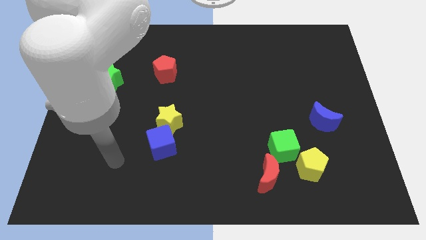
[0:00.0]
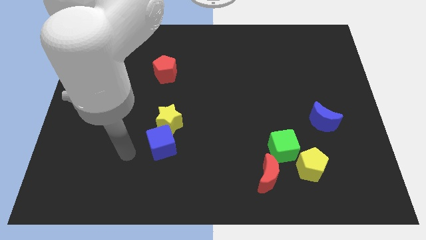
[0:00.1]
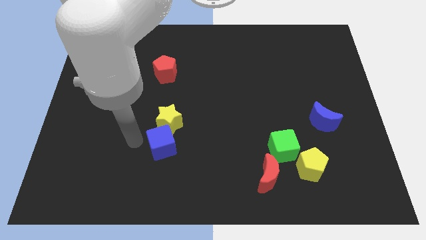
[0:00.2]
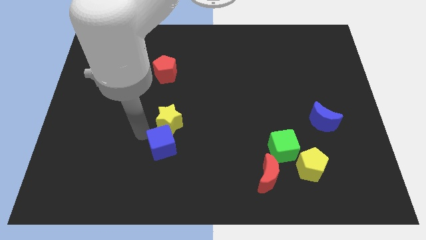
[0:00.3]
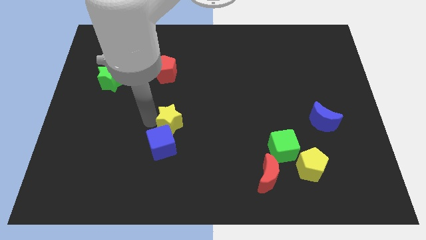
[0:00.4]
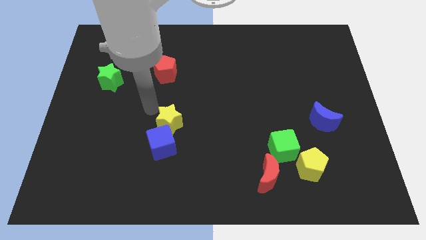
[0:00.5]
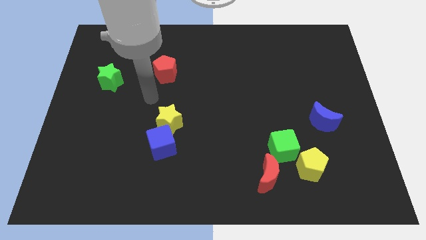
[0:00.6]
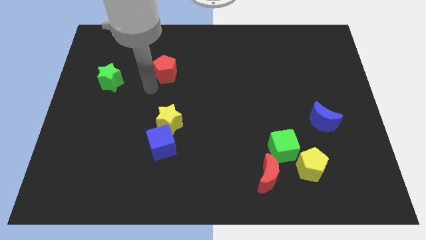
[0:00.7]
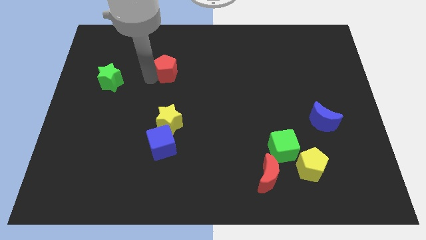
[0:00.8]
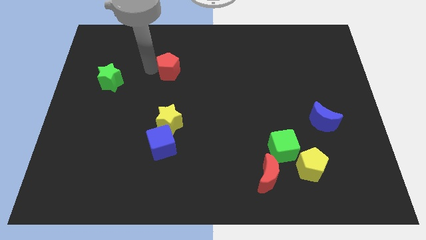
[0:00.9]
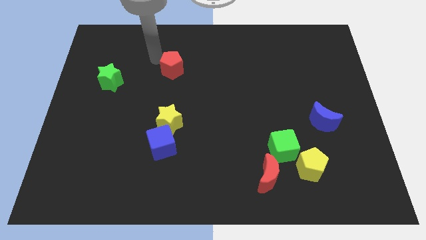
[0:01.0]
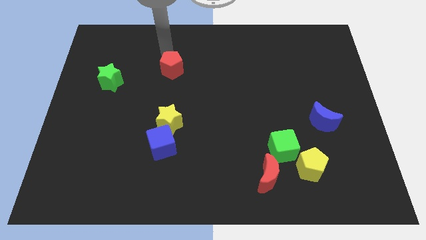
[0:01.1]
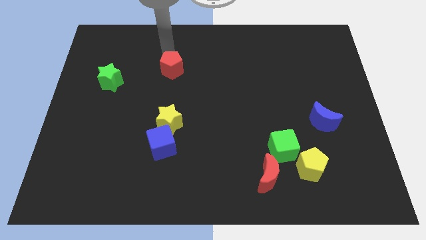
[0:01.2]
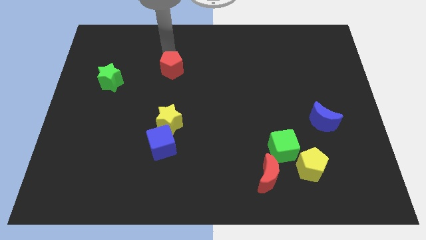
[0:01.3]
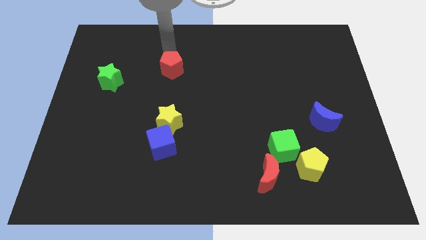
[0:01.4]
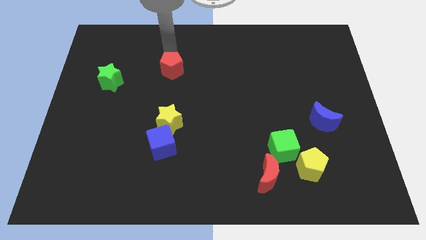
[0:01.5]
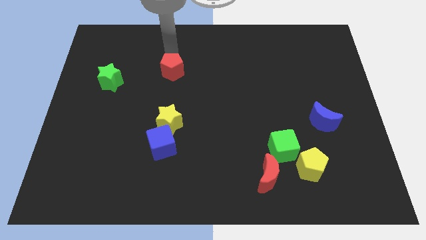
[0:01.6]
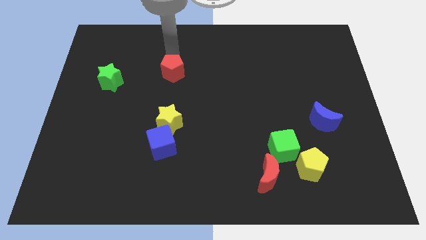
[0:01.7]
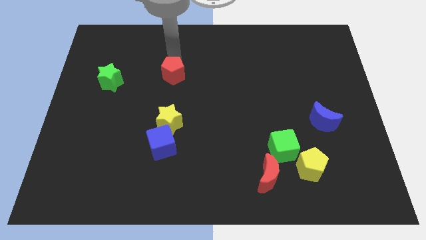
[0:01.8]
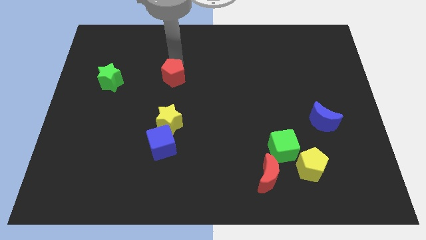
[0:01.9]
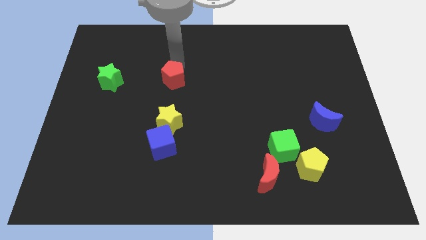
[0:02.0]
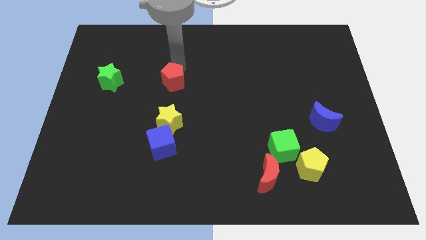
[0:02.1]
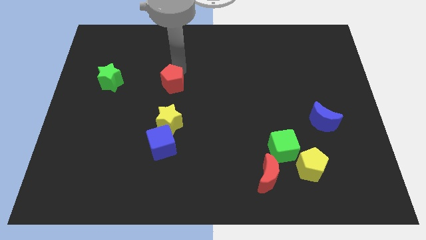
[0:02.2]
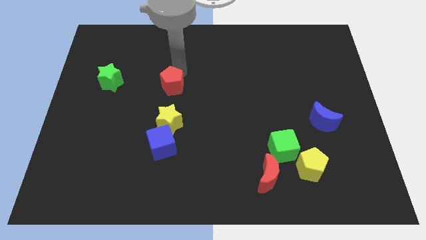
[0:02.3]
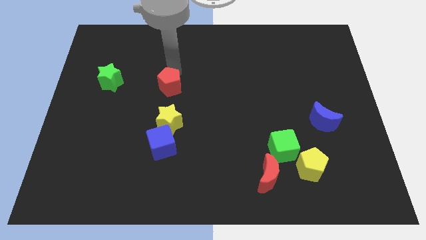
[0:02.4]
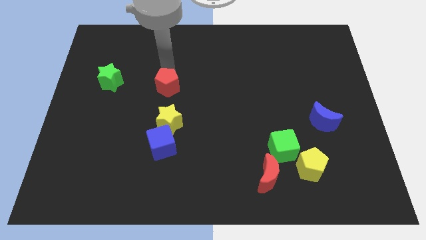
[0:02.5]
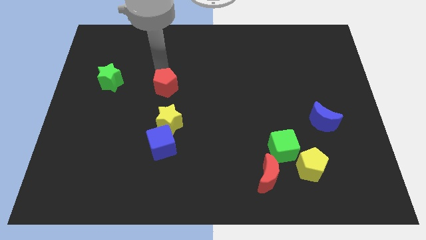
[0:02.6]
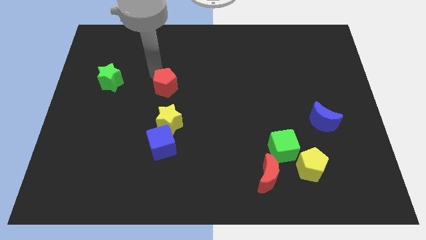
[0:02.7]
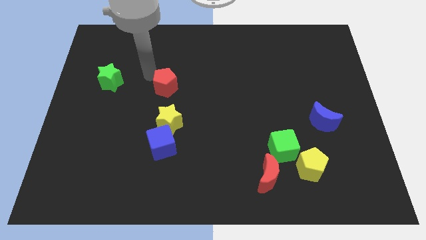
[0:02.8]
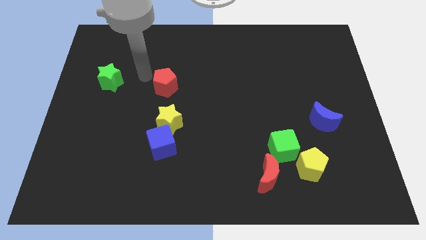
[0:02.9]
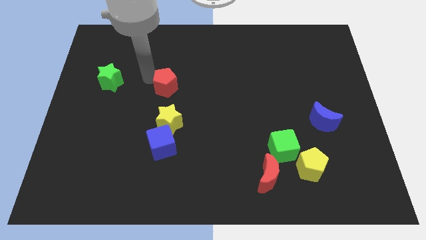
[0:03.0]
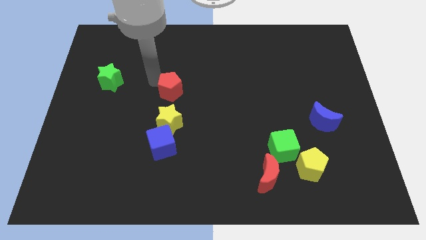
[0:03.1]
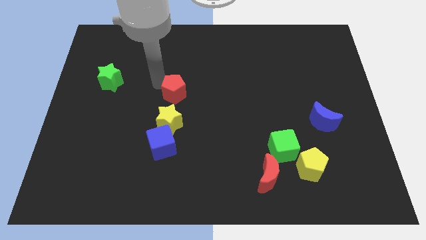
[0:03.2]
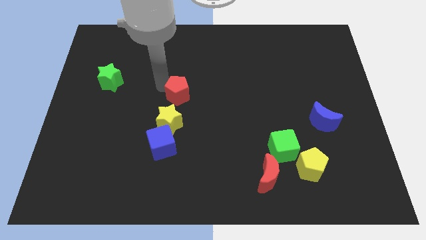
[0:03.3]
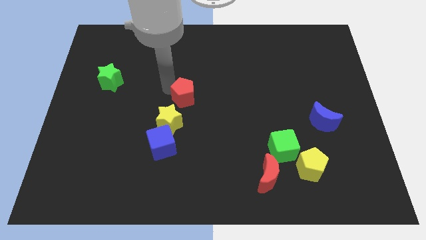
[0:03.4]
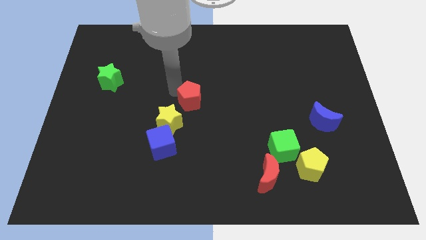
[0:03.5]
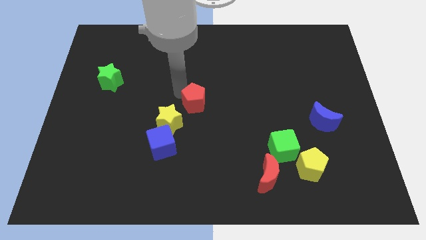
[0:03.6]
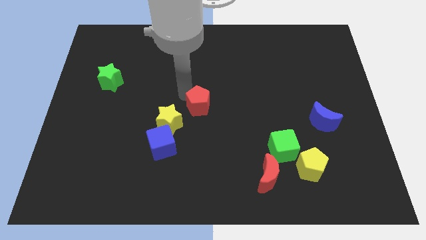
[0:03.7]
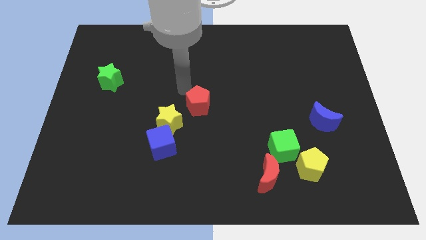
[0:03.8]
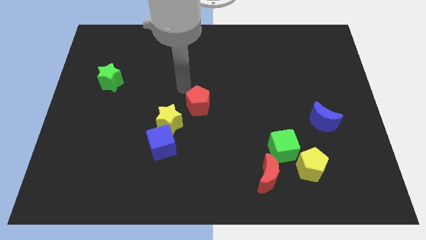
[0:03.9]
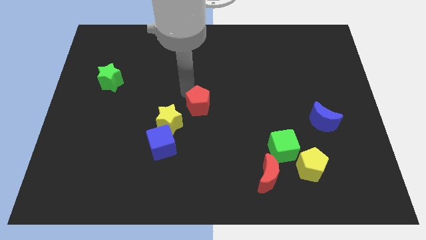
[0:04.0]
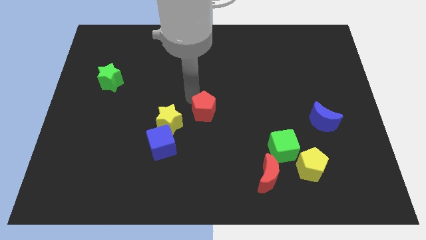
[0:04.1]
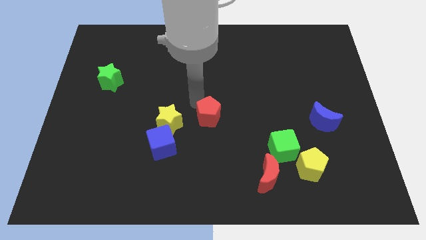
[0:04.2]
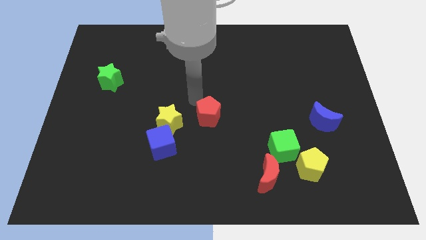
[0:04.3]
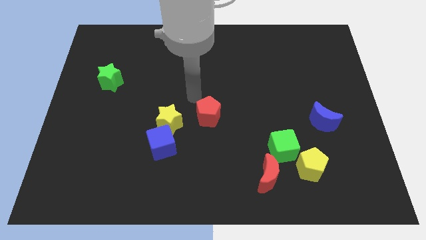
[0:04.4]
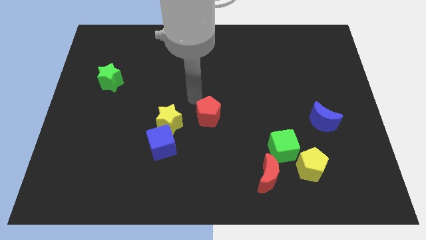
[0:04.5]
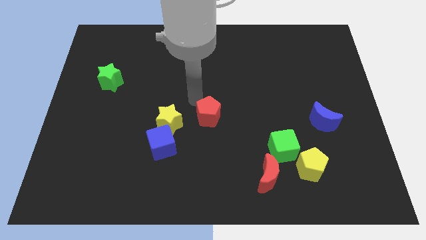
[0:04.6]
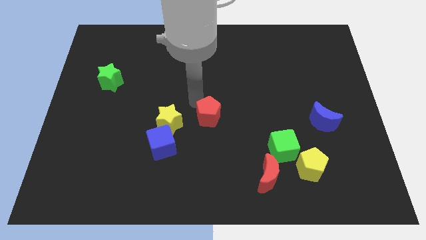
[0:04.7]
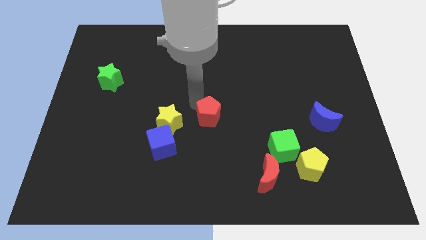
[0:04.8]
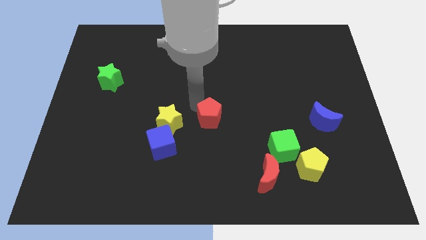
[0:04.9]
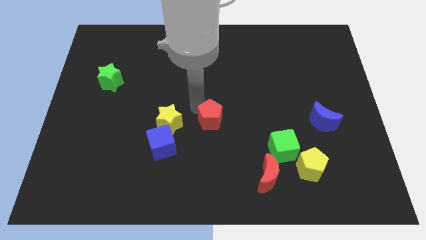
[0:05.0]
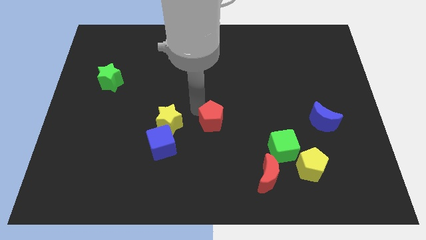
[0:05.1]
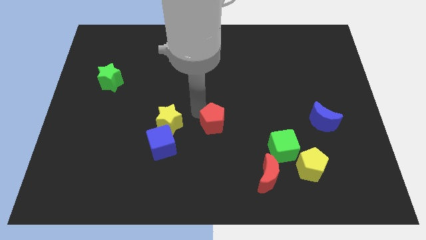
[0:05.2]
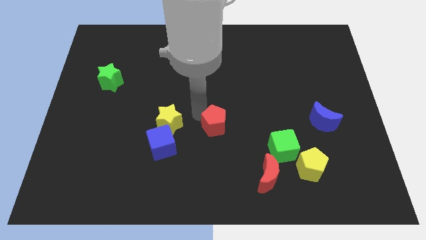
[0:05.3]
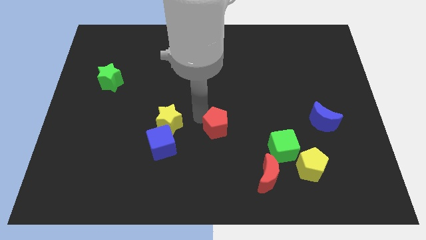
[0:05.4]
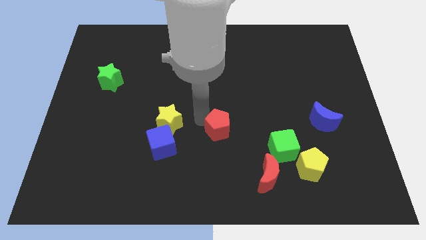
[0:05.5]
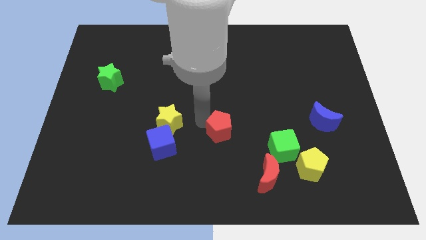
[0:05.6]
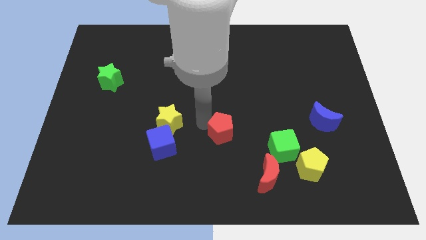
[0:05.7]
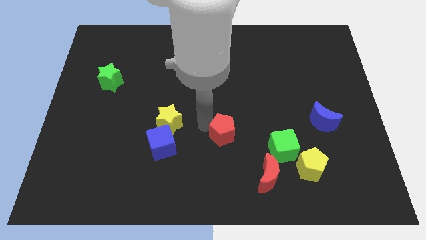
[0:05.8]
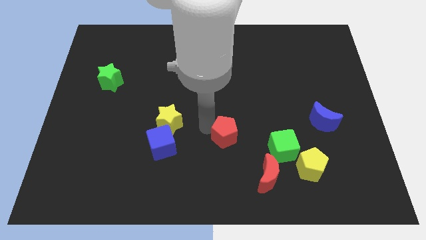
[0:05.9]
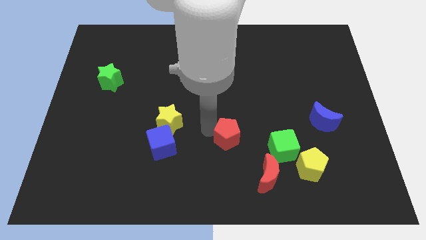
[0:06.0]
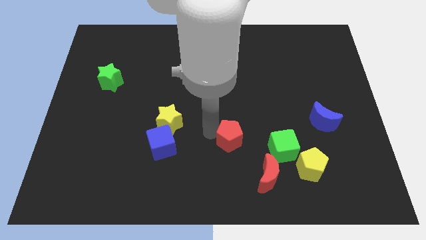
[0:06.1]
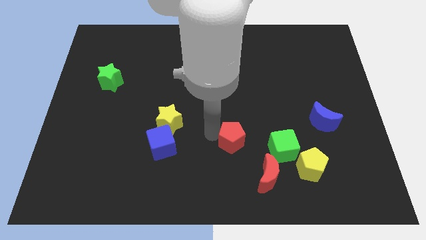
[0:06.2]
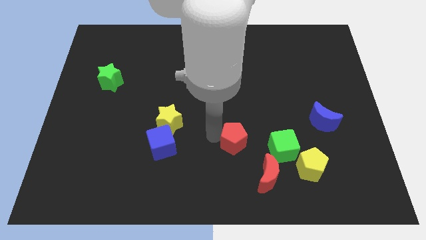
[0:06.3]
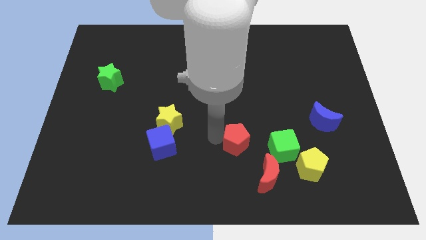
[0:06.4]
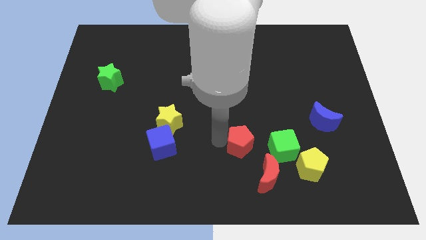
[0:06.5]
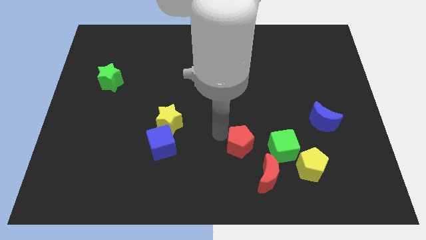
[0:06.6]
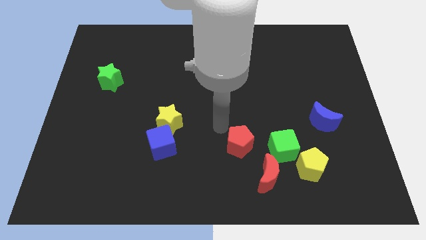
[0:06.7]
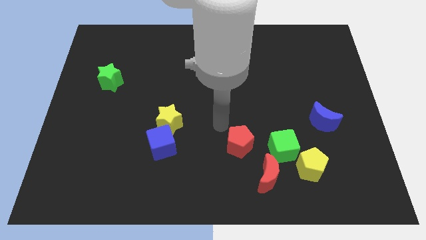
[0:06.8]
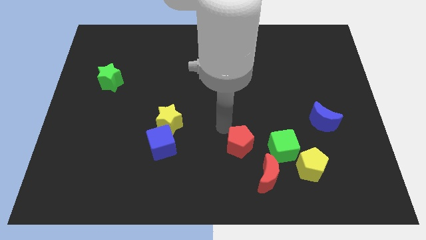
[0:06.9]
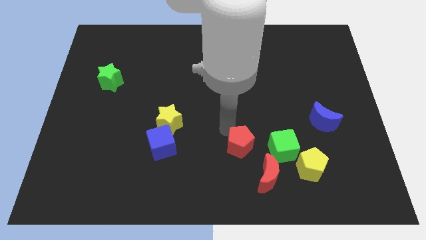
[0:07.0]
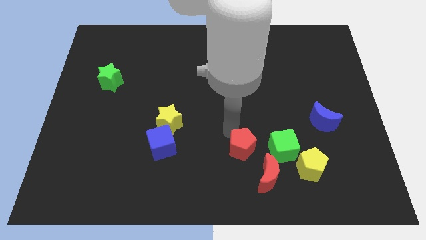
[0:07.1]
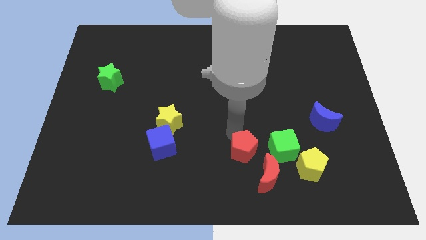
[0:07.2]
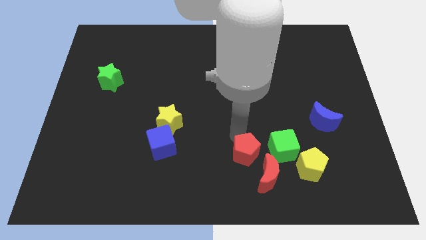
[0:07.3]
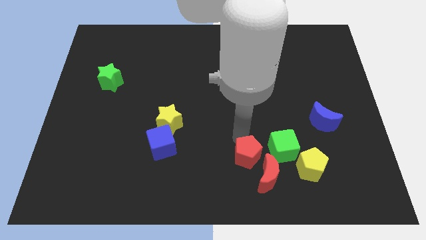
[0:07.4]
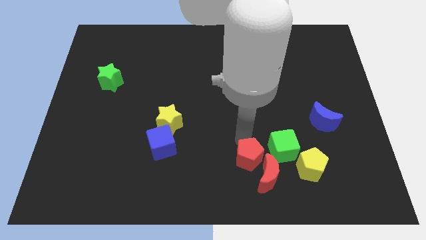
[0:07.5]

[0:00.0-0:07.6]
move the red pentagon close to the red moon

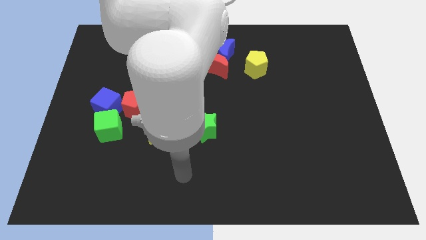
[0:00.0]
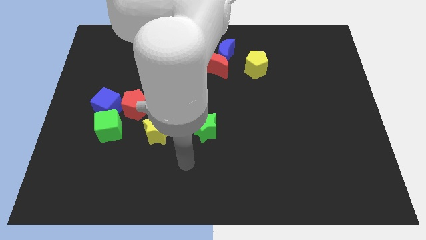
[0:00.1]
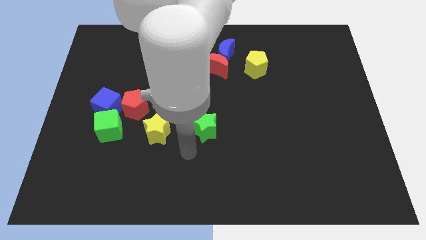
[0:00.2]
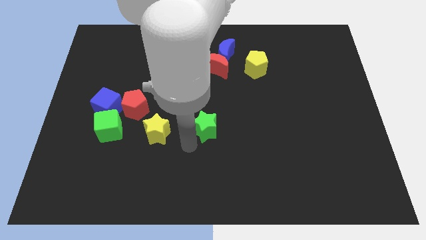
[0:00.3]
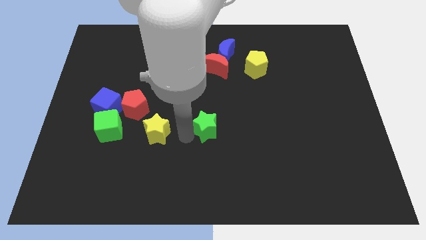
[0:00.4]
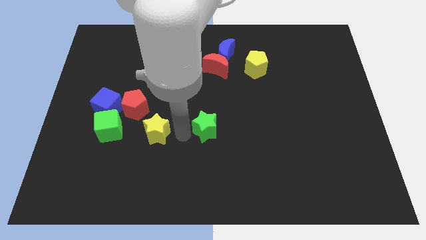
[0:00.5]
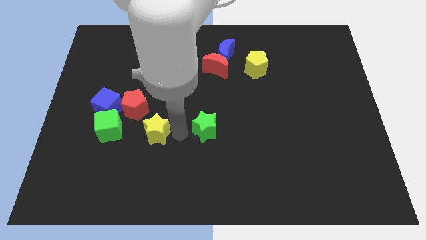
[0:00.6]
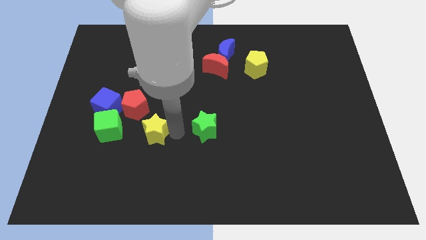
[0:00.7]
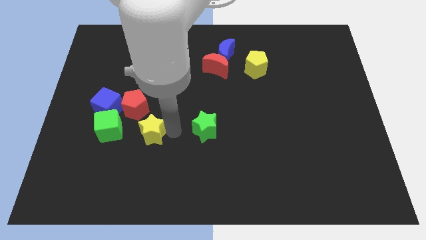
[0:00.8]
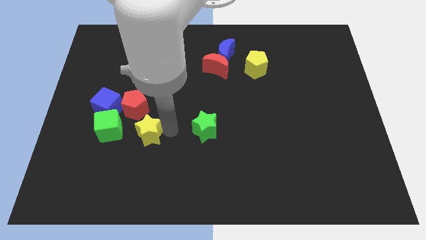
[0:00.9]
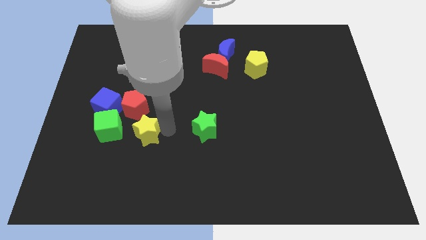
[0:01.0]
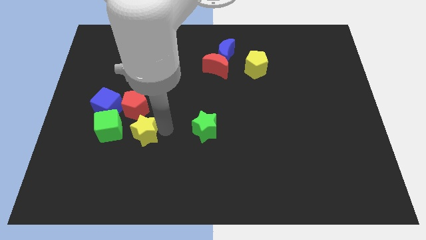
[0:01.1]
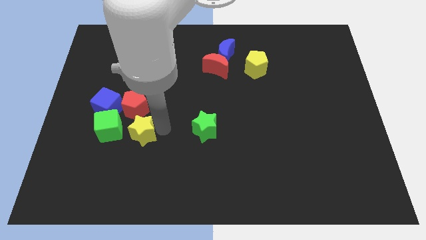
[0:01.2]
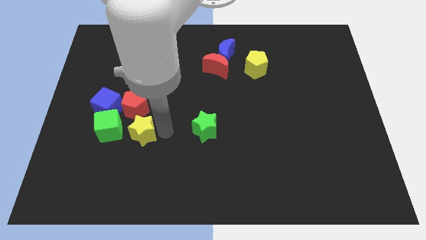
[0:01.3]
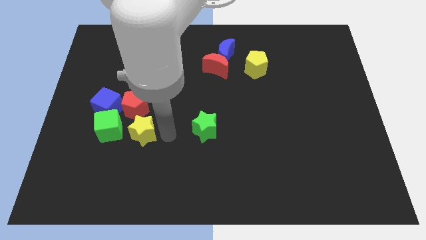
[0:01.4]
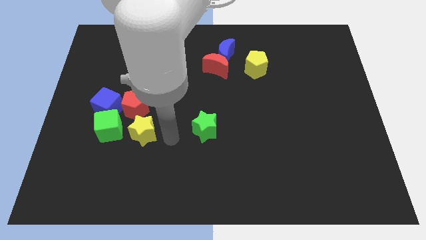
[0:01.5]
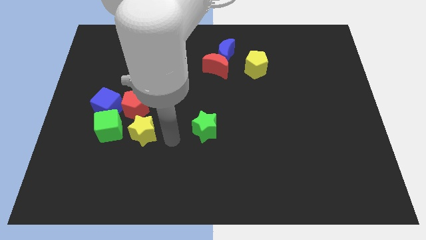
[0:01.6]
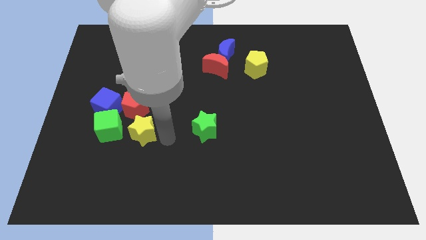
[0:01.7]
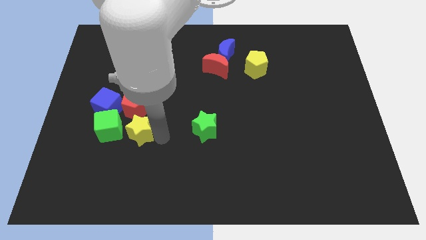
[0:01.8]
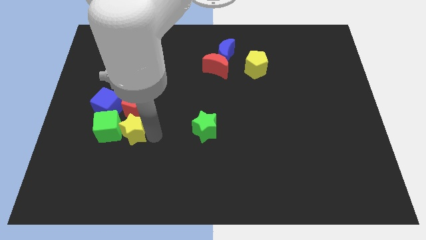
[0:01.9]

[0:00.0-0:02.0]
put the yellow star towards the green cube
